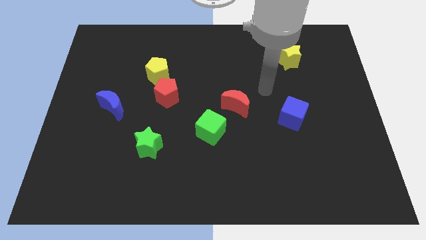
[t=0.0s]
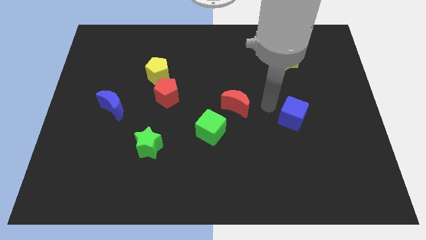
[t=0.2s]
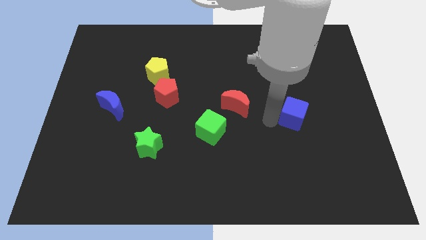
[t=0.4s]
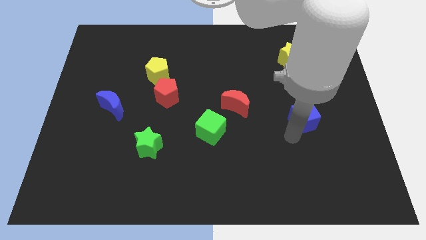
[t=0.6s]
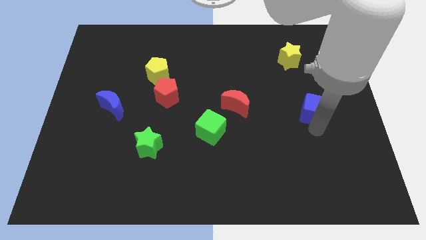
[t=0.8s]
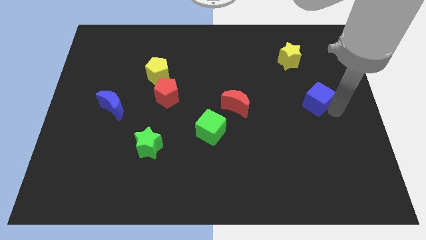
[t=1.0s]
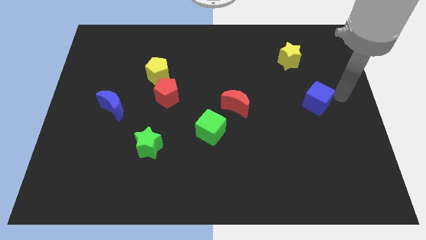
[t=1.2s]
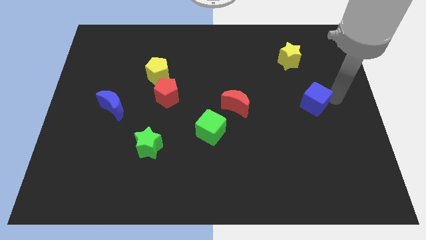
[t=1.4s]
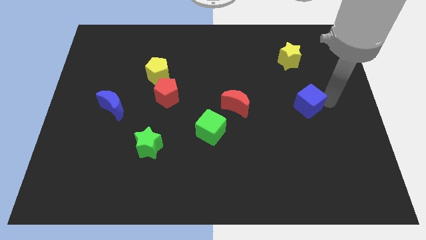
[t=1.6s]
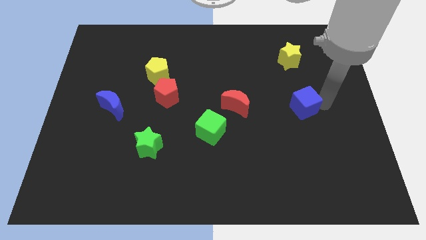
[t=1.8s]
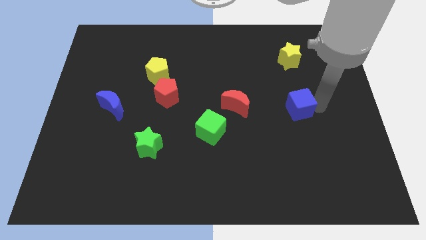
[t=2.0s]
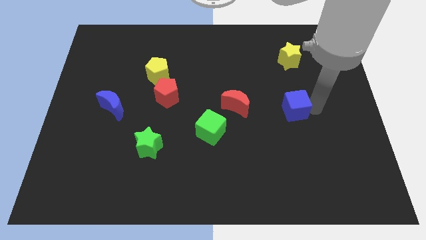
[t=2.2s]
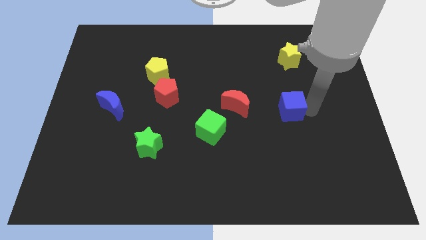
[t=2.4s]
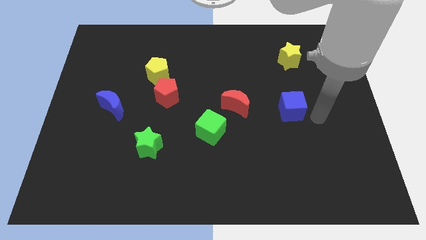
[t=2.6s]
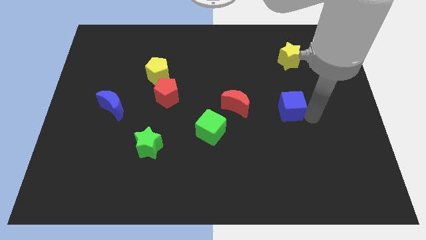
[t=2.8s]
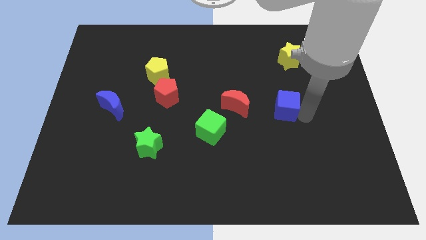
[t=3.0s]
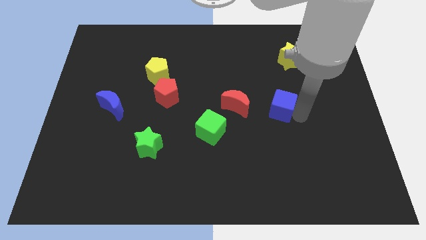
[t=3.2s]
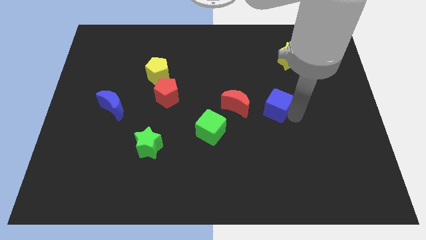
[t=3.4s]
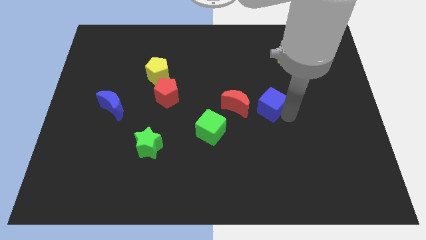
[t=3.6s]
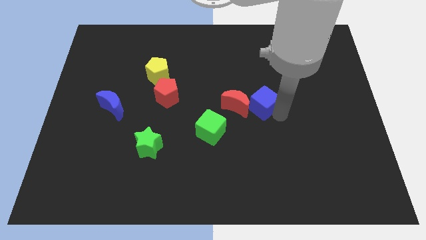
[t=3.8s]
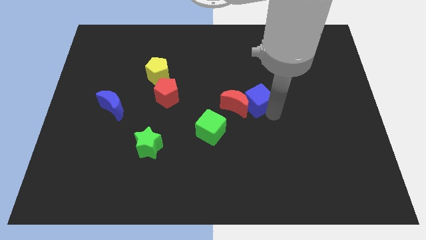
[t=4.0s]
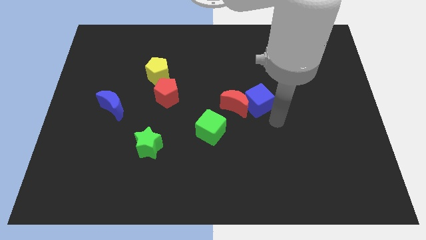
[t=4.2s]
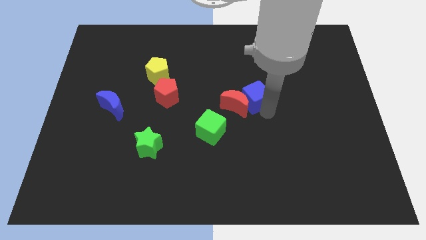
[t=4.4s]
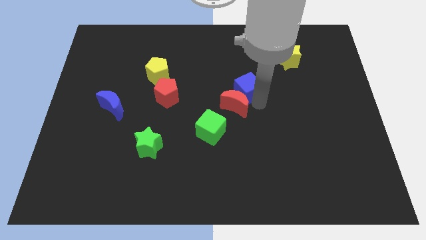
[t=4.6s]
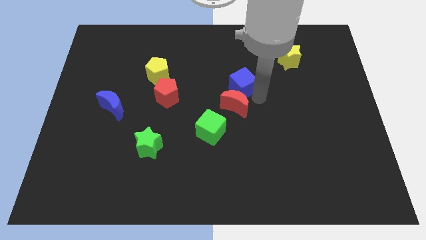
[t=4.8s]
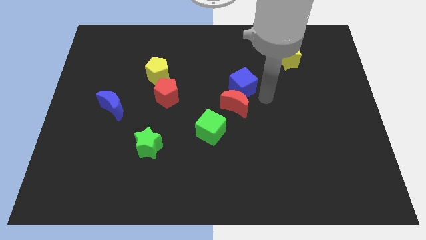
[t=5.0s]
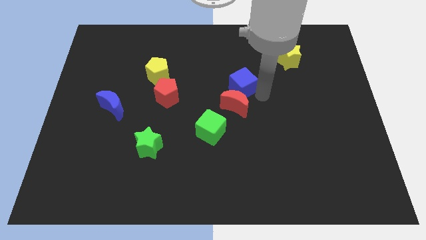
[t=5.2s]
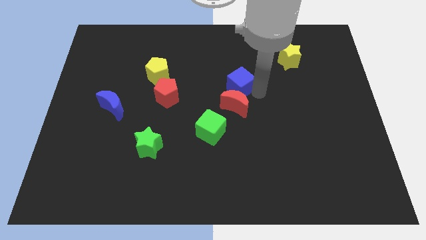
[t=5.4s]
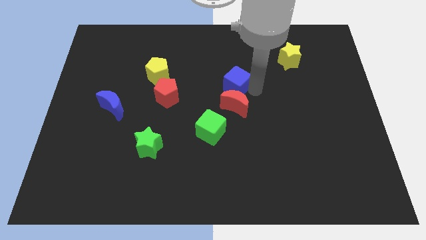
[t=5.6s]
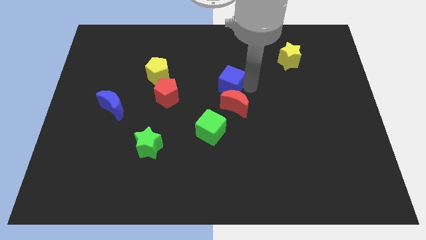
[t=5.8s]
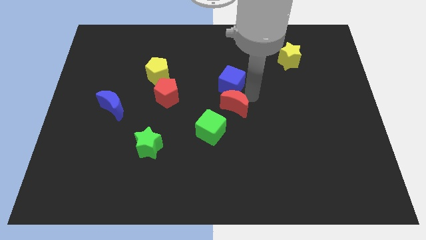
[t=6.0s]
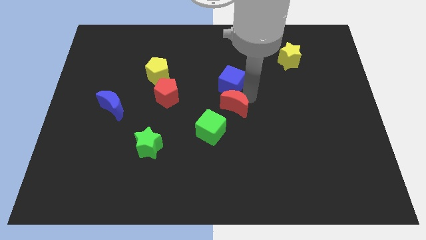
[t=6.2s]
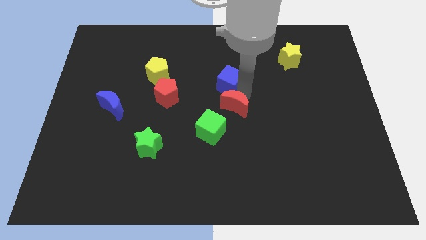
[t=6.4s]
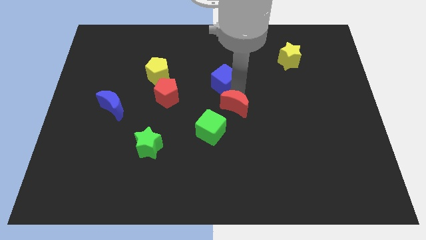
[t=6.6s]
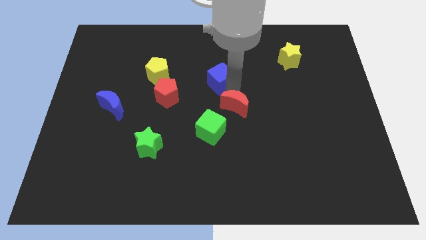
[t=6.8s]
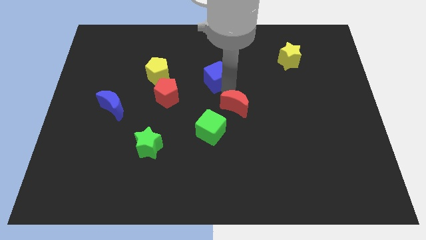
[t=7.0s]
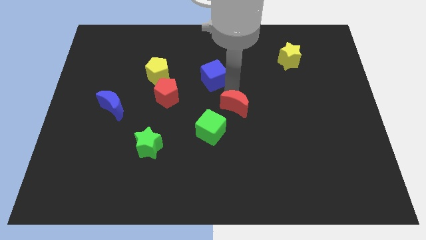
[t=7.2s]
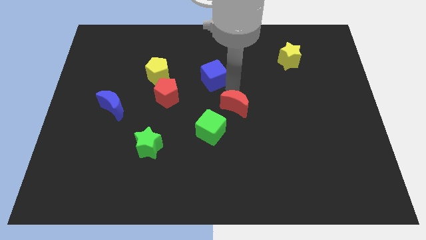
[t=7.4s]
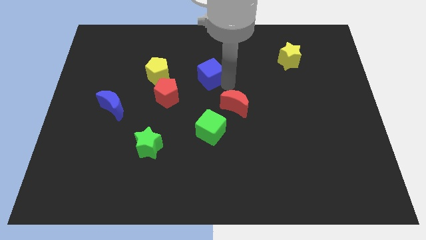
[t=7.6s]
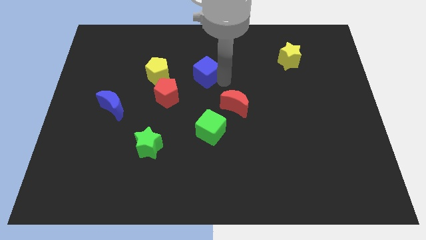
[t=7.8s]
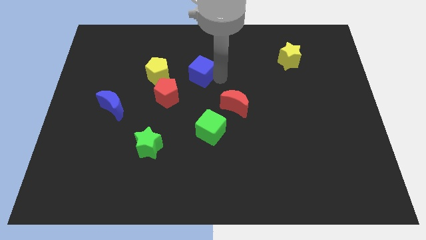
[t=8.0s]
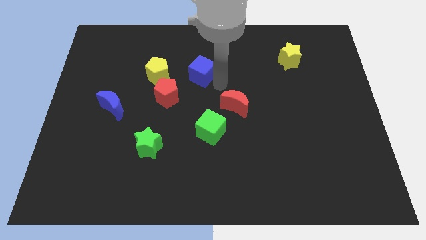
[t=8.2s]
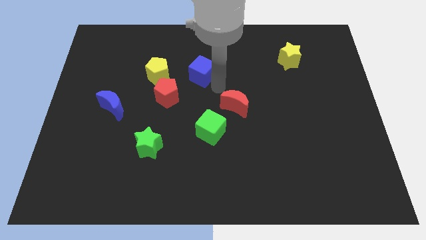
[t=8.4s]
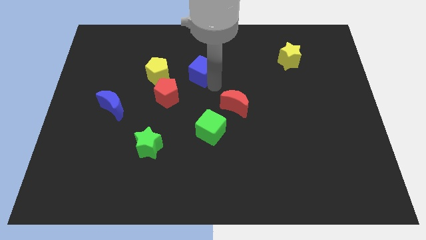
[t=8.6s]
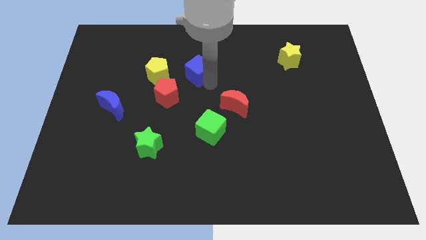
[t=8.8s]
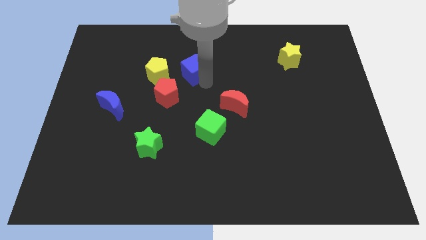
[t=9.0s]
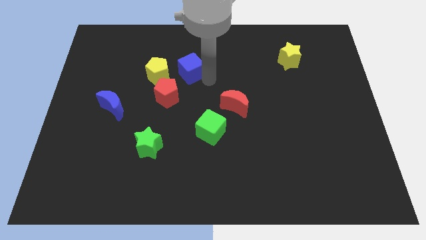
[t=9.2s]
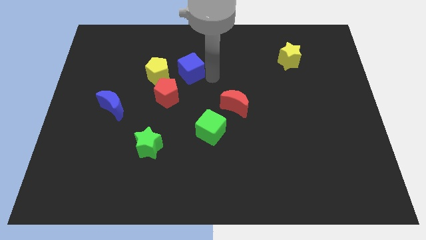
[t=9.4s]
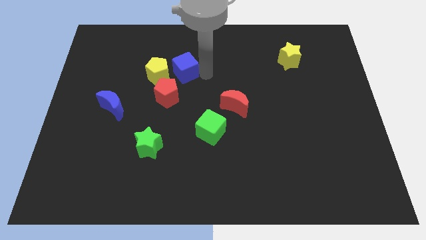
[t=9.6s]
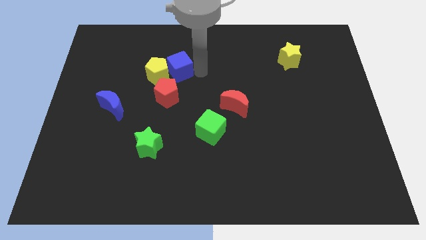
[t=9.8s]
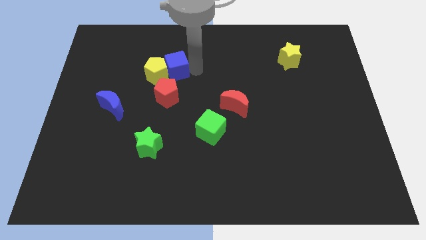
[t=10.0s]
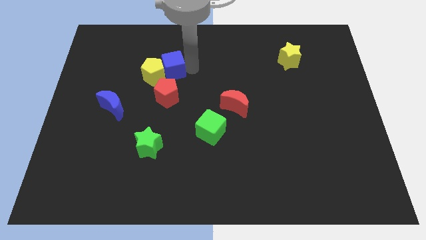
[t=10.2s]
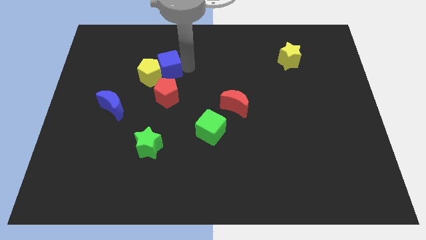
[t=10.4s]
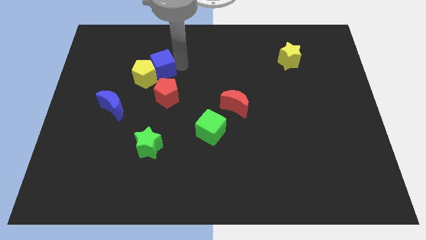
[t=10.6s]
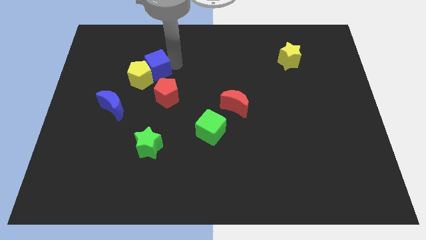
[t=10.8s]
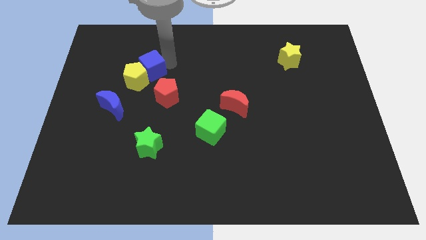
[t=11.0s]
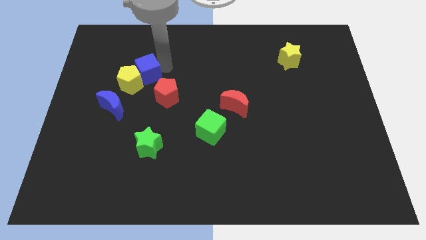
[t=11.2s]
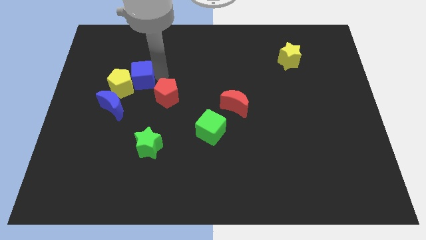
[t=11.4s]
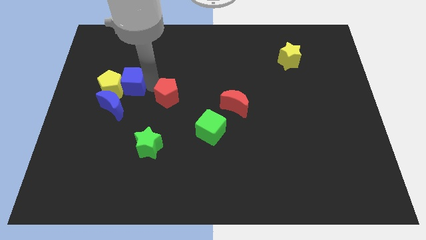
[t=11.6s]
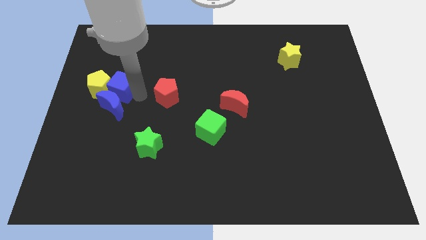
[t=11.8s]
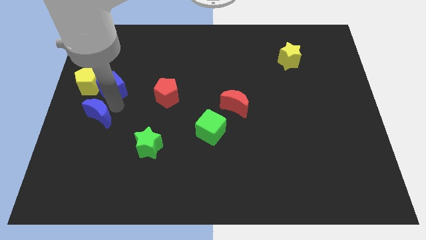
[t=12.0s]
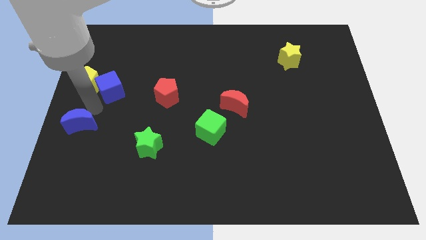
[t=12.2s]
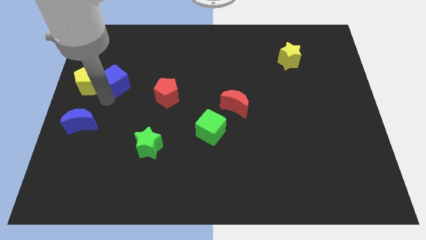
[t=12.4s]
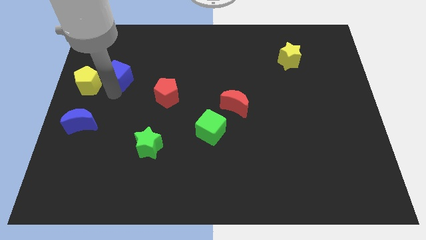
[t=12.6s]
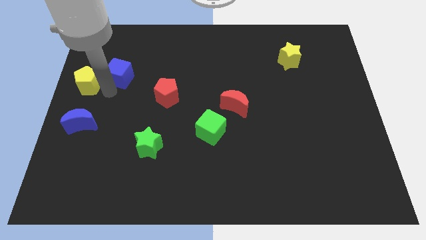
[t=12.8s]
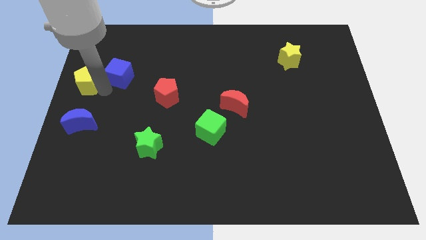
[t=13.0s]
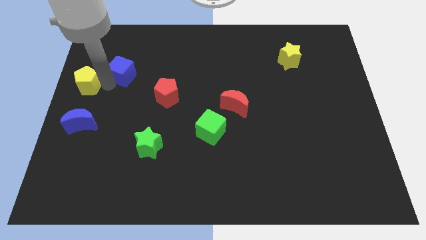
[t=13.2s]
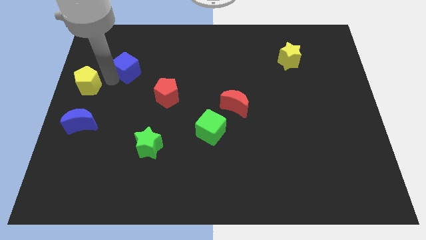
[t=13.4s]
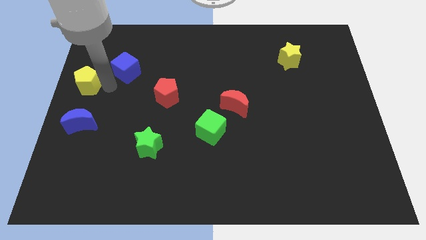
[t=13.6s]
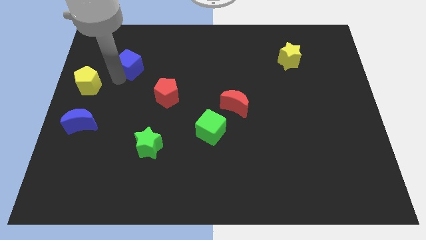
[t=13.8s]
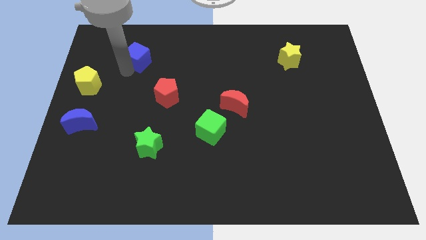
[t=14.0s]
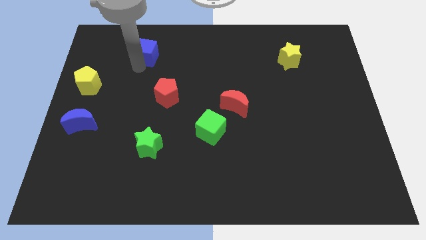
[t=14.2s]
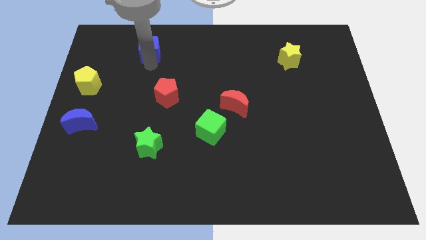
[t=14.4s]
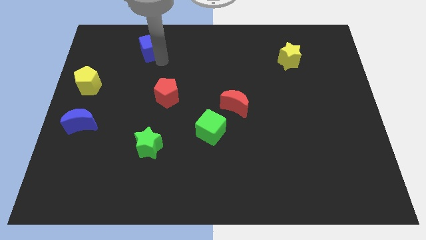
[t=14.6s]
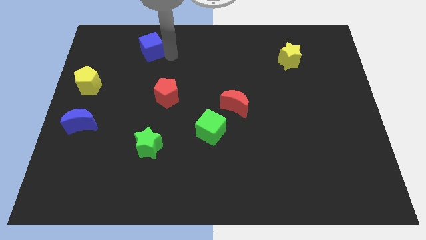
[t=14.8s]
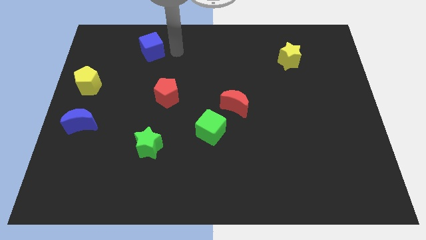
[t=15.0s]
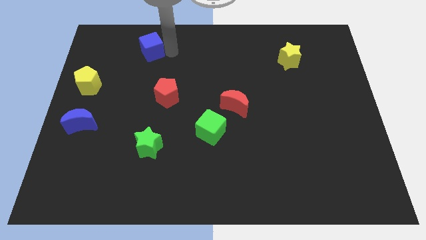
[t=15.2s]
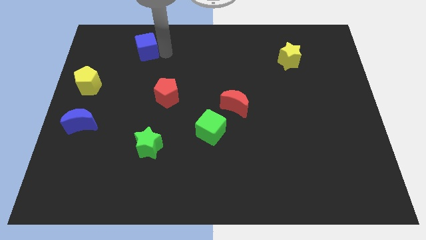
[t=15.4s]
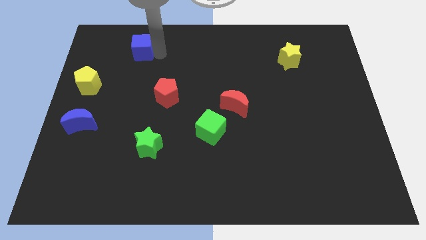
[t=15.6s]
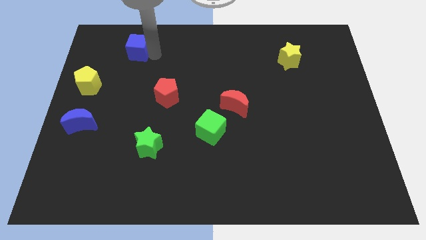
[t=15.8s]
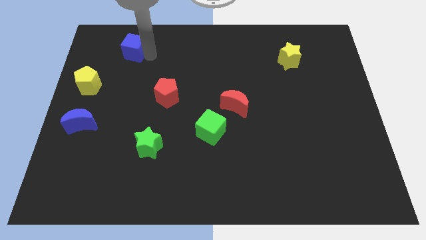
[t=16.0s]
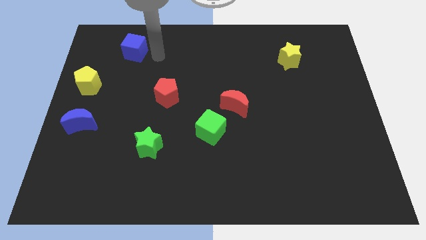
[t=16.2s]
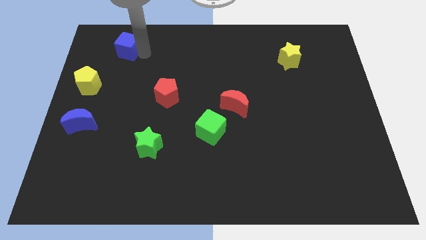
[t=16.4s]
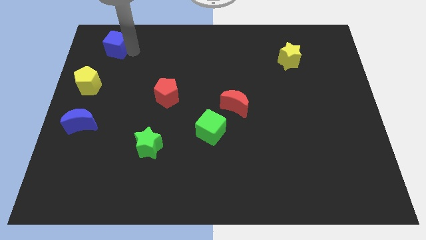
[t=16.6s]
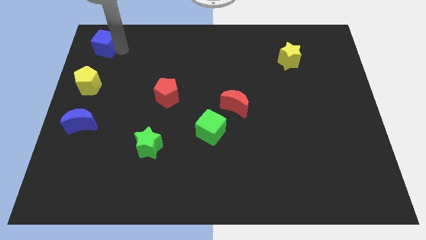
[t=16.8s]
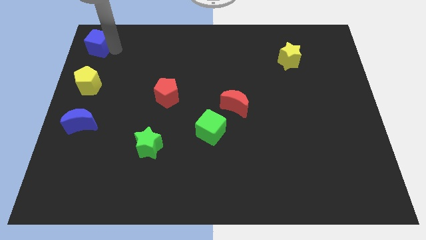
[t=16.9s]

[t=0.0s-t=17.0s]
push the blue cube to the top left of the board
